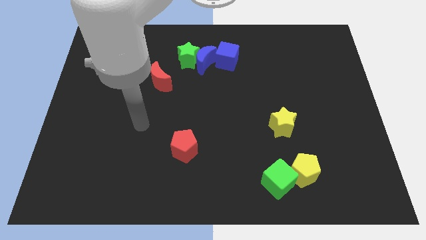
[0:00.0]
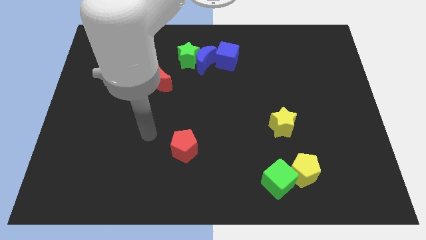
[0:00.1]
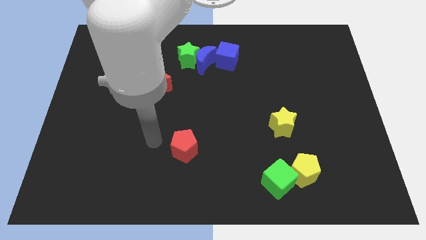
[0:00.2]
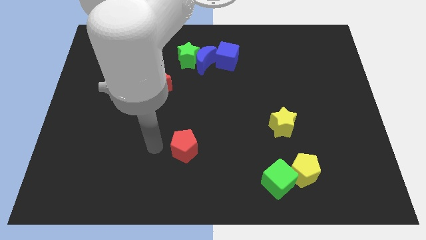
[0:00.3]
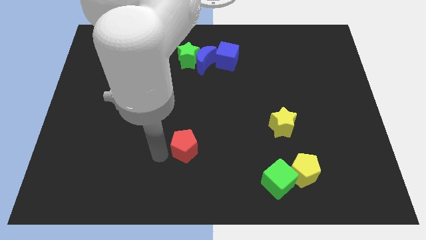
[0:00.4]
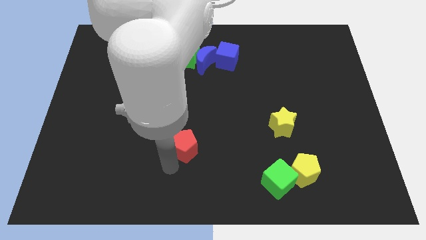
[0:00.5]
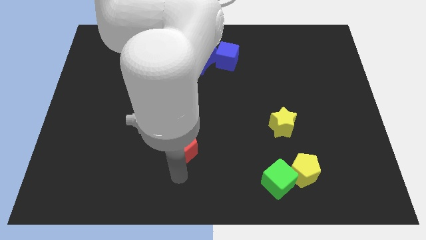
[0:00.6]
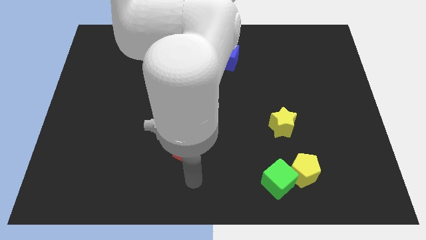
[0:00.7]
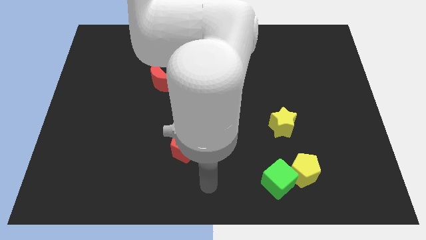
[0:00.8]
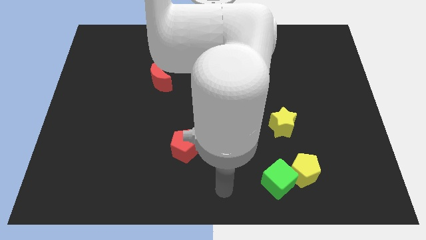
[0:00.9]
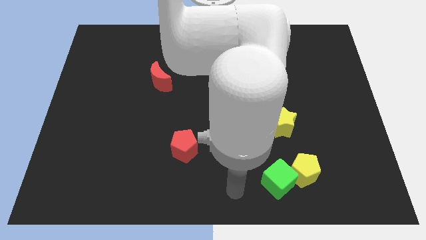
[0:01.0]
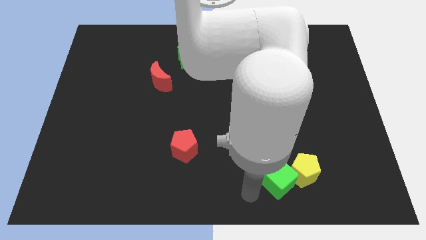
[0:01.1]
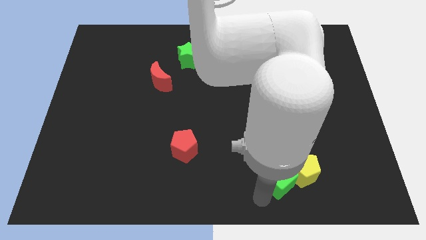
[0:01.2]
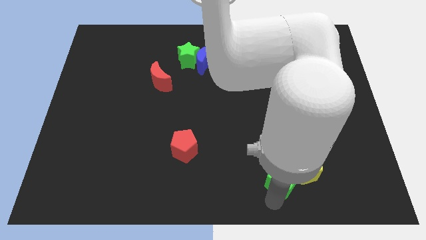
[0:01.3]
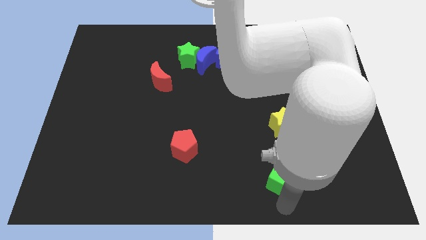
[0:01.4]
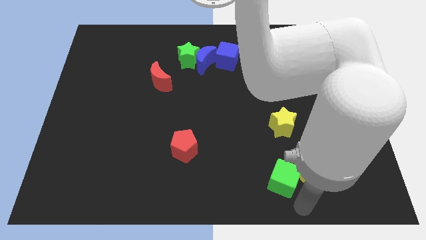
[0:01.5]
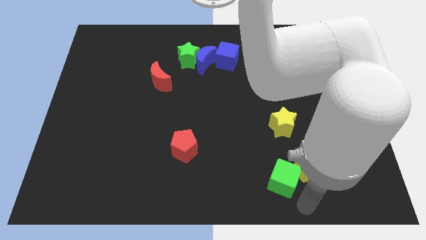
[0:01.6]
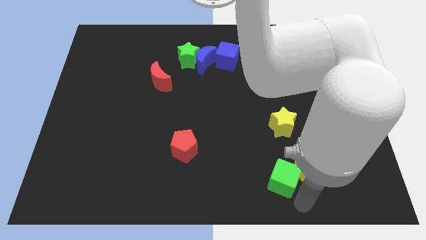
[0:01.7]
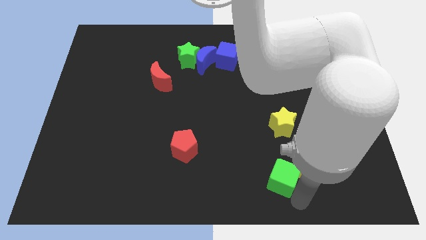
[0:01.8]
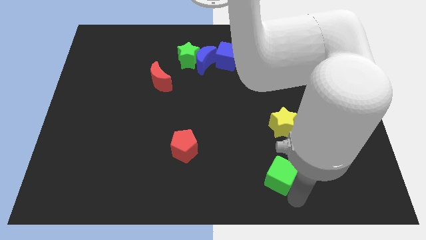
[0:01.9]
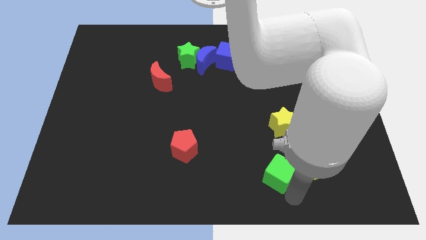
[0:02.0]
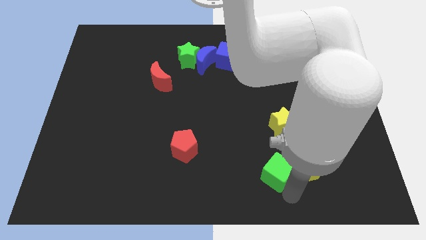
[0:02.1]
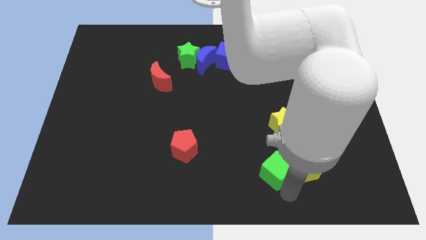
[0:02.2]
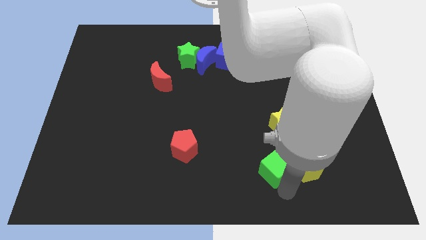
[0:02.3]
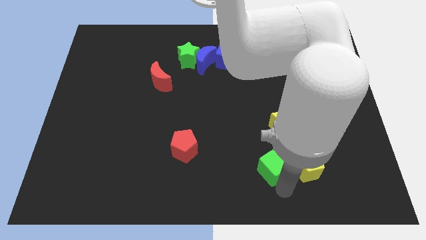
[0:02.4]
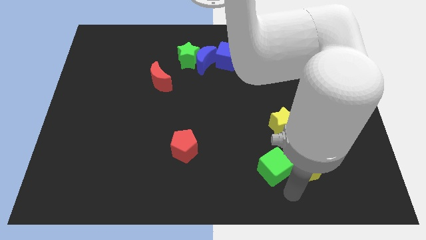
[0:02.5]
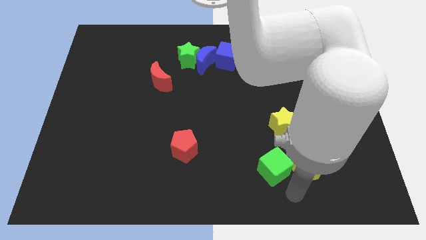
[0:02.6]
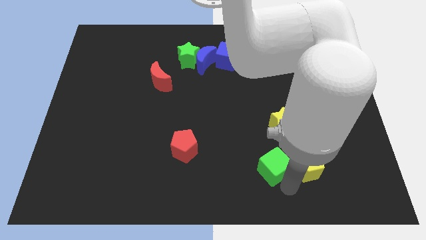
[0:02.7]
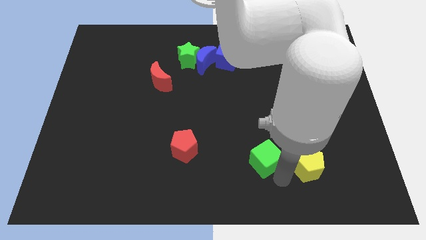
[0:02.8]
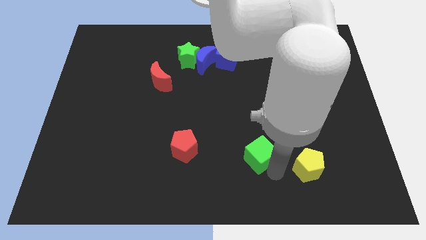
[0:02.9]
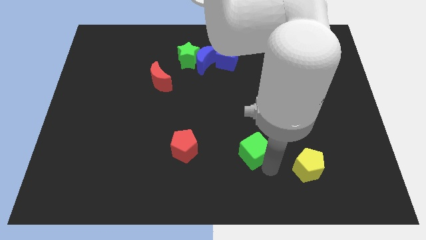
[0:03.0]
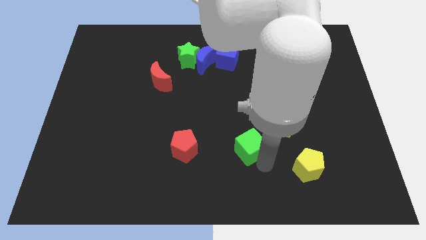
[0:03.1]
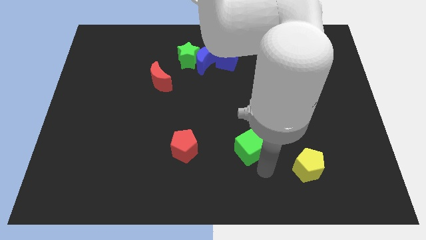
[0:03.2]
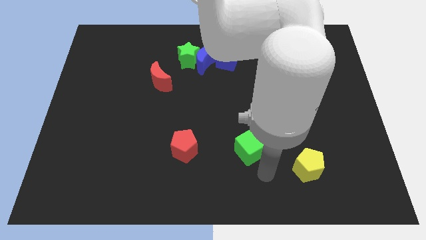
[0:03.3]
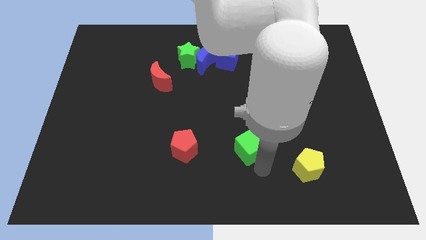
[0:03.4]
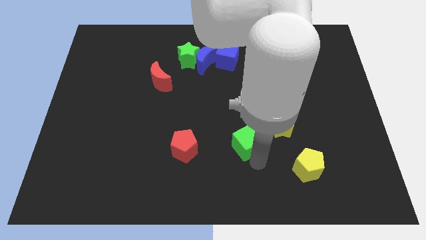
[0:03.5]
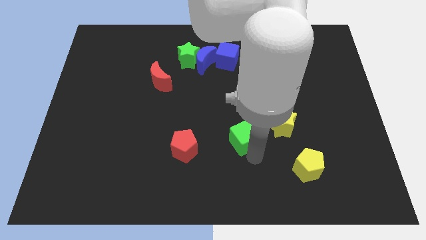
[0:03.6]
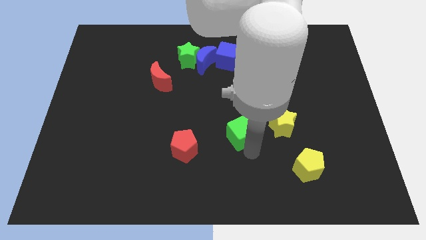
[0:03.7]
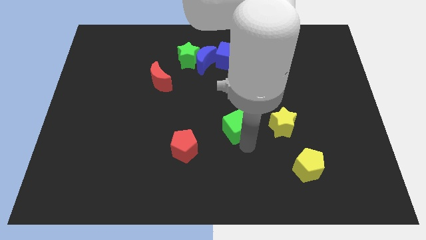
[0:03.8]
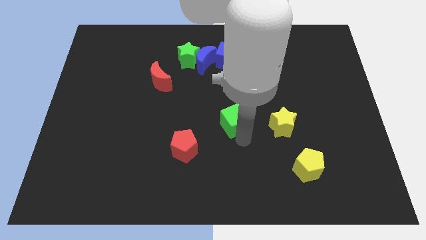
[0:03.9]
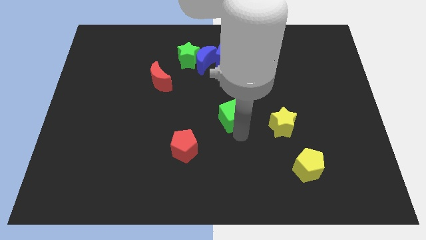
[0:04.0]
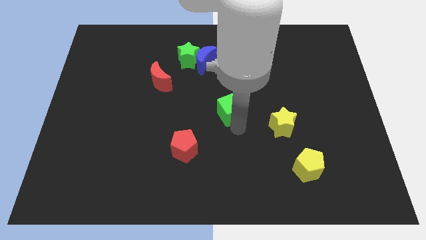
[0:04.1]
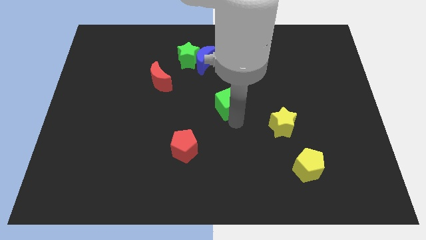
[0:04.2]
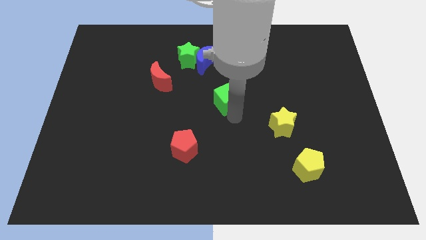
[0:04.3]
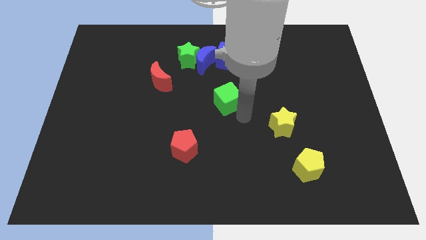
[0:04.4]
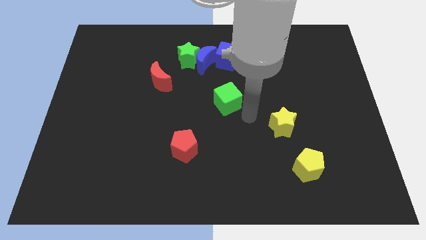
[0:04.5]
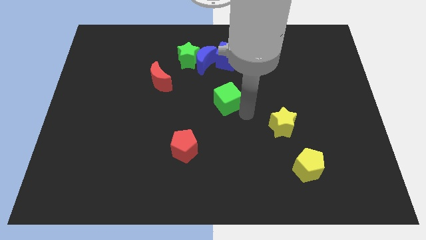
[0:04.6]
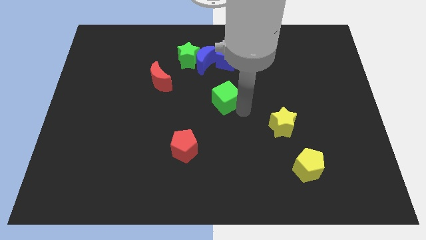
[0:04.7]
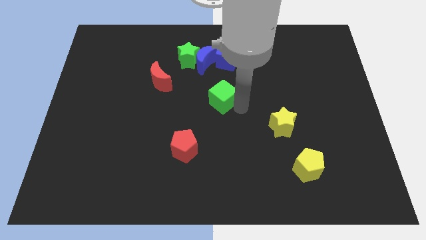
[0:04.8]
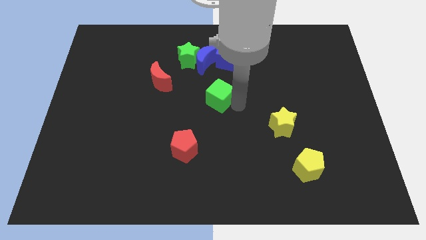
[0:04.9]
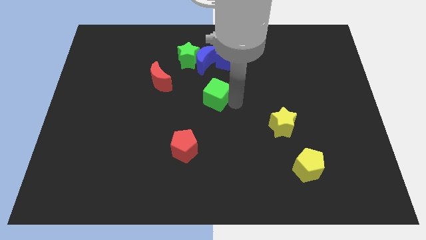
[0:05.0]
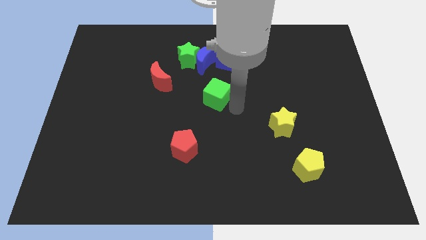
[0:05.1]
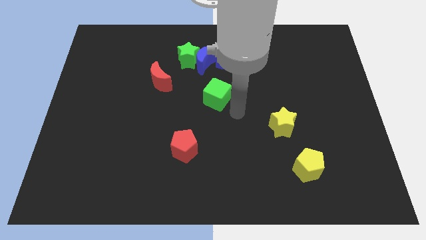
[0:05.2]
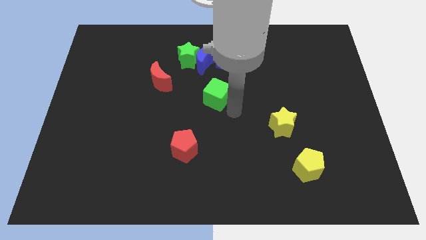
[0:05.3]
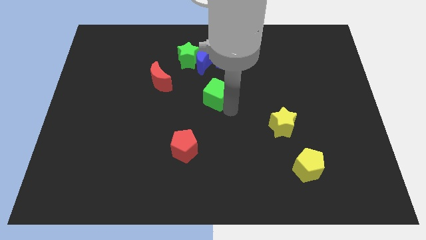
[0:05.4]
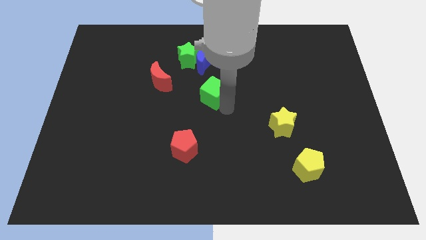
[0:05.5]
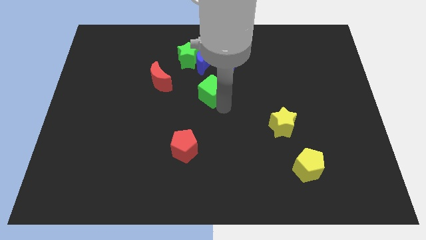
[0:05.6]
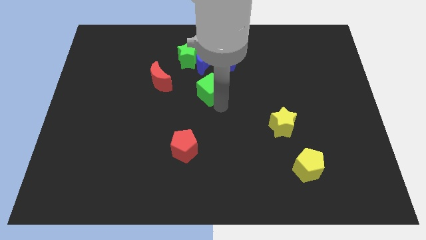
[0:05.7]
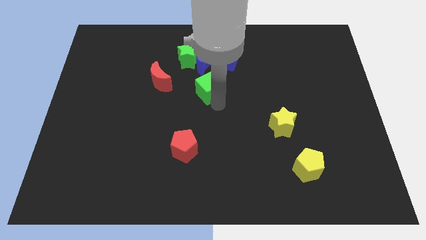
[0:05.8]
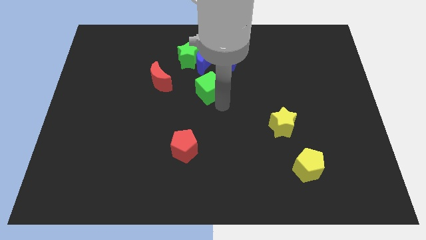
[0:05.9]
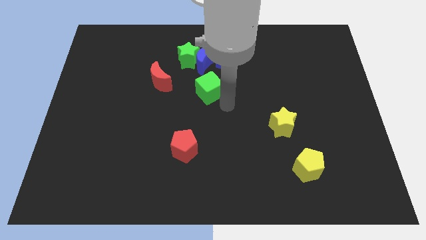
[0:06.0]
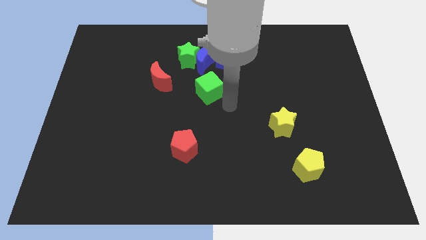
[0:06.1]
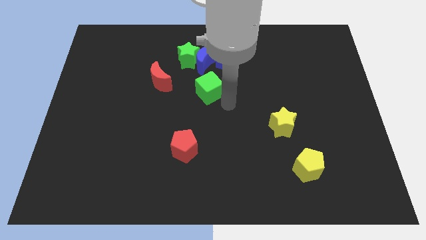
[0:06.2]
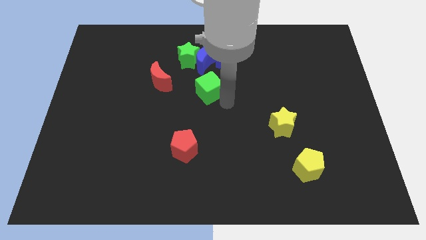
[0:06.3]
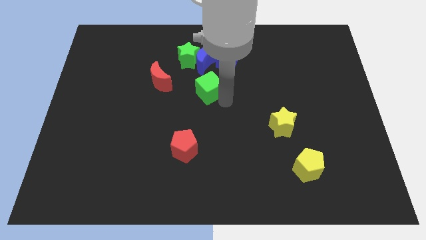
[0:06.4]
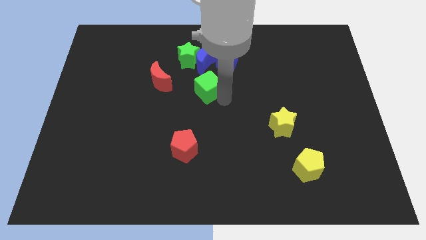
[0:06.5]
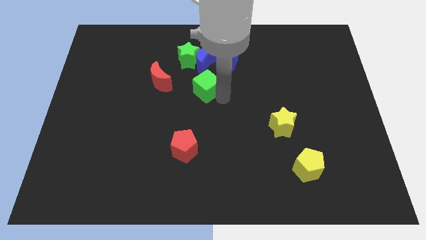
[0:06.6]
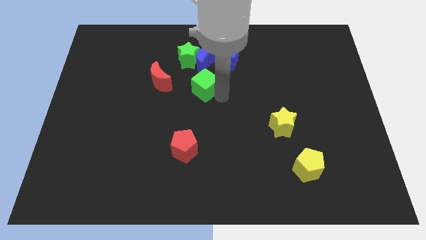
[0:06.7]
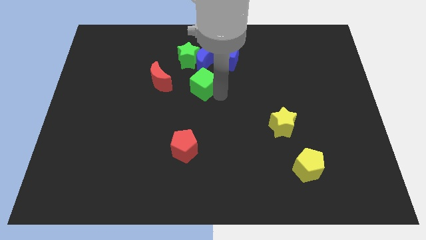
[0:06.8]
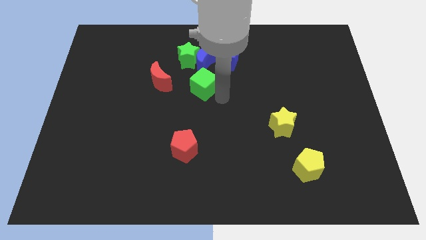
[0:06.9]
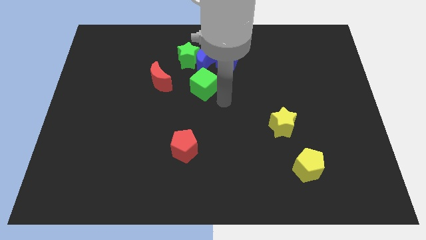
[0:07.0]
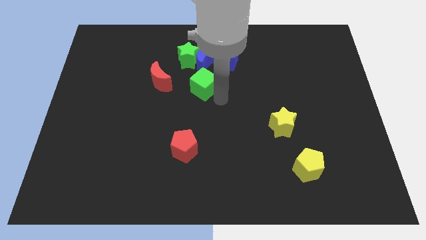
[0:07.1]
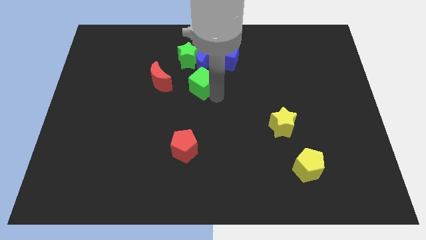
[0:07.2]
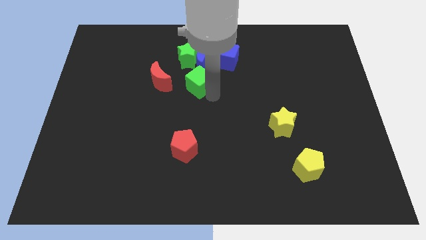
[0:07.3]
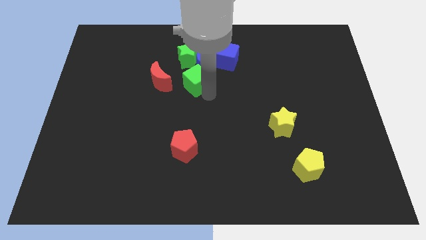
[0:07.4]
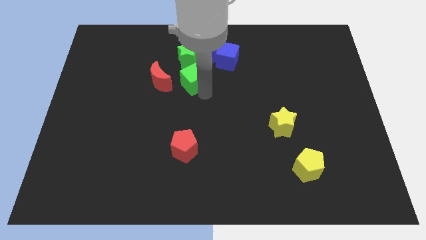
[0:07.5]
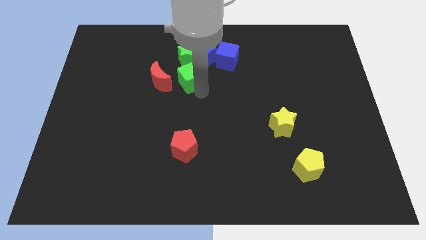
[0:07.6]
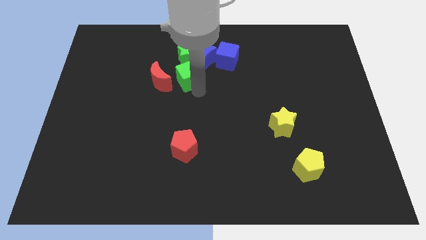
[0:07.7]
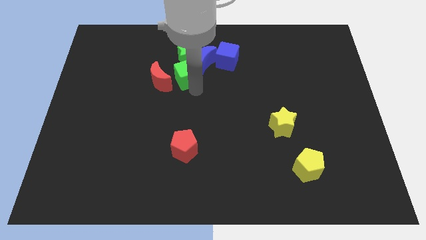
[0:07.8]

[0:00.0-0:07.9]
put the green cube towards the green star
